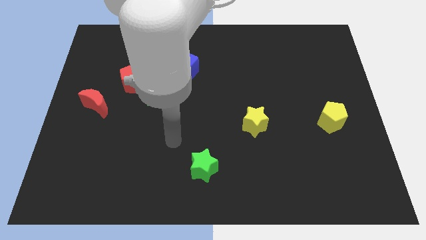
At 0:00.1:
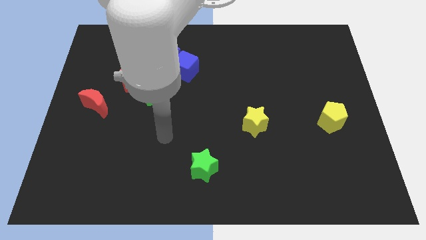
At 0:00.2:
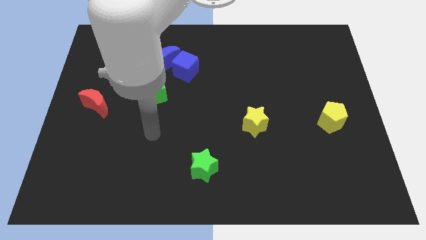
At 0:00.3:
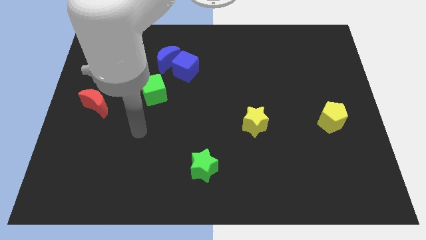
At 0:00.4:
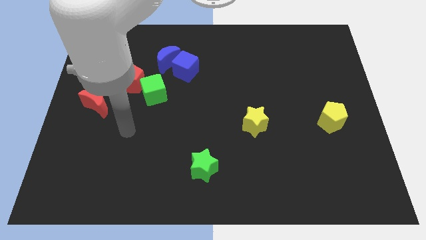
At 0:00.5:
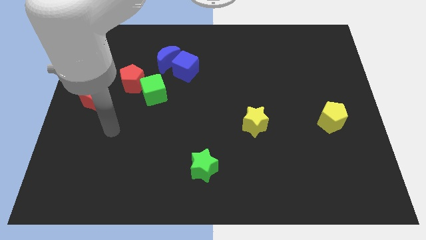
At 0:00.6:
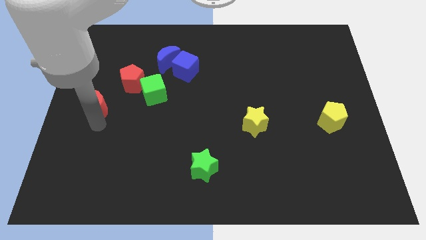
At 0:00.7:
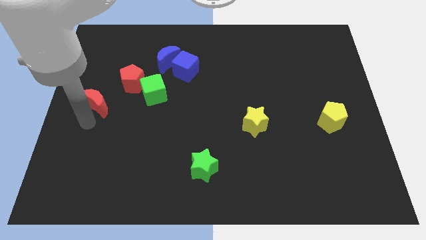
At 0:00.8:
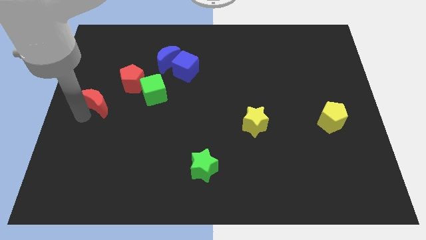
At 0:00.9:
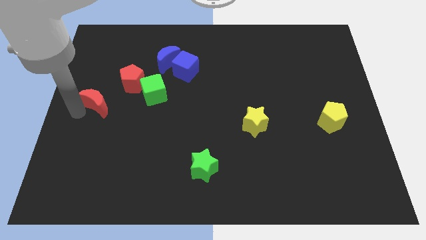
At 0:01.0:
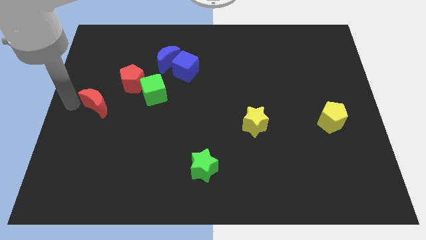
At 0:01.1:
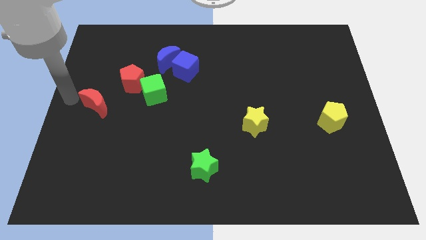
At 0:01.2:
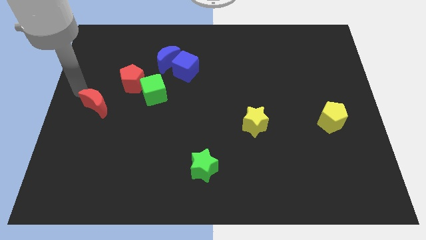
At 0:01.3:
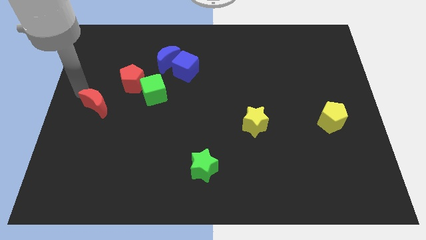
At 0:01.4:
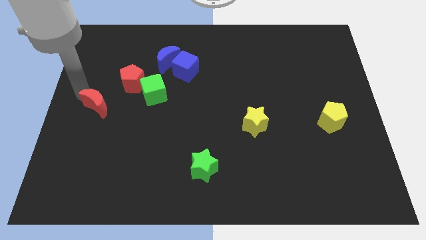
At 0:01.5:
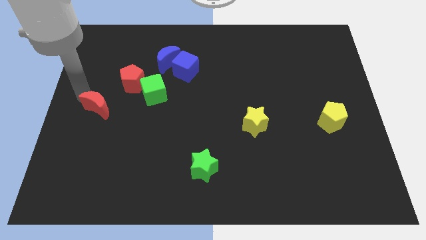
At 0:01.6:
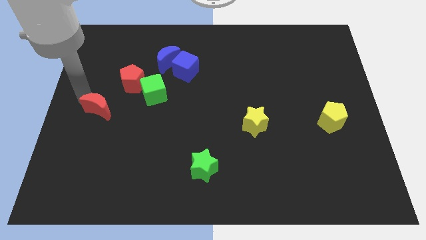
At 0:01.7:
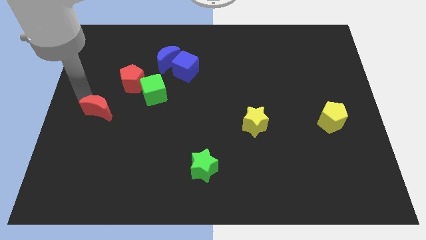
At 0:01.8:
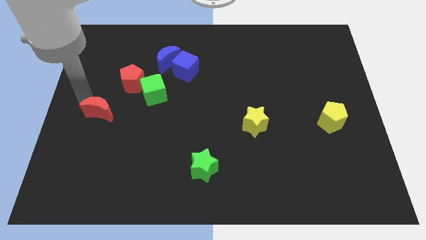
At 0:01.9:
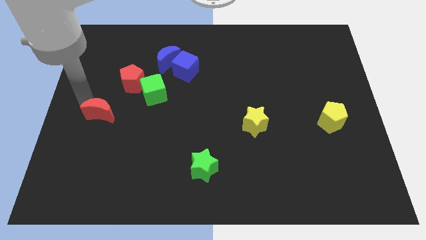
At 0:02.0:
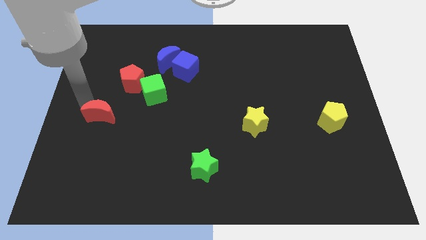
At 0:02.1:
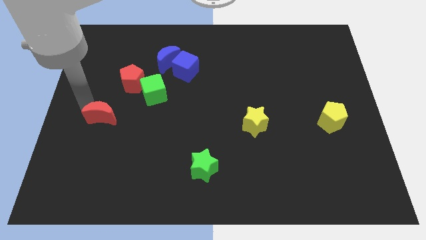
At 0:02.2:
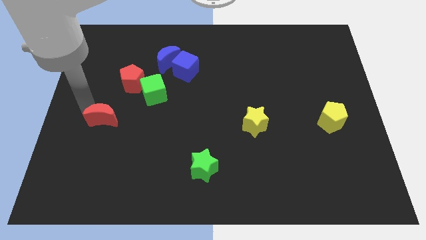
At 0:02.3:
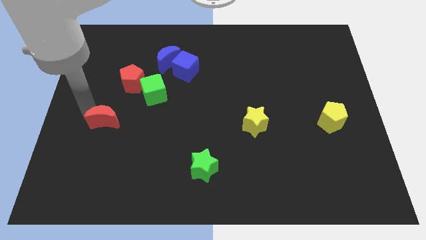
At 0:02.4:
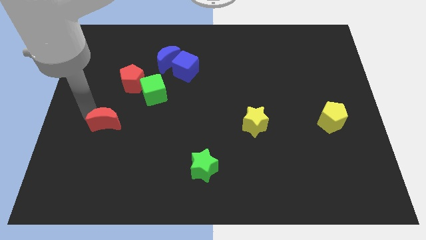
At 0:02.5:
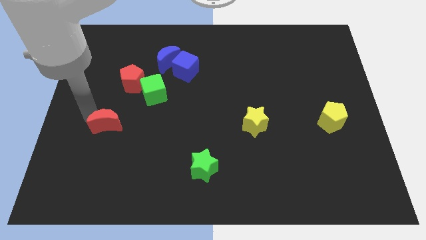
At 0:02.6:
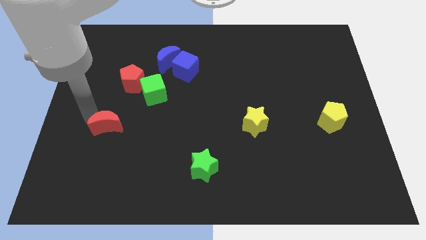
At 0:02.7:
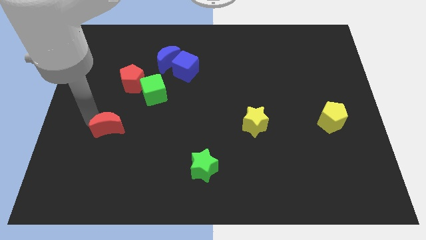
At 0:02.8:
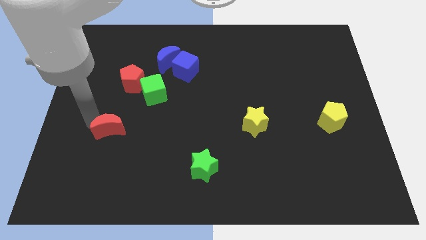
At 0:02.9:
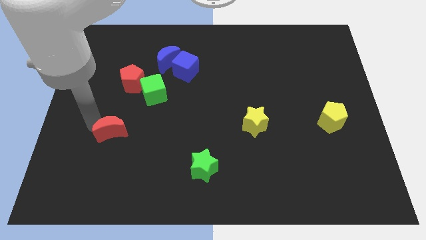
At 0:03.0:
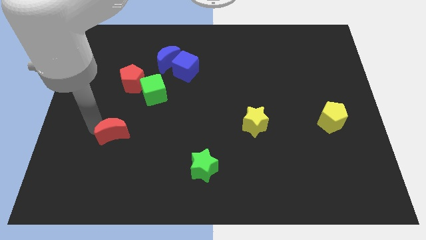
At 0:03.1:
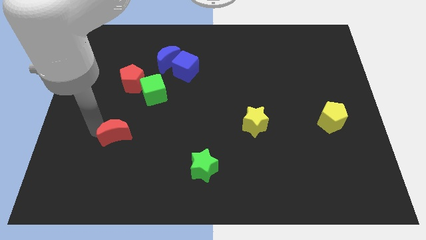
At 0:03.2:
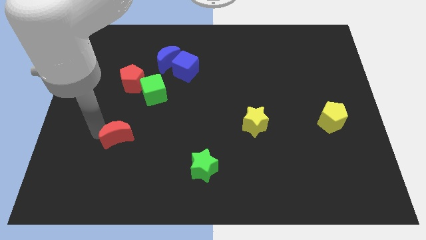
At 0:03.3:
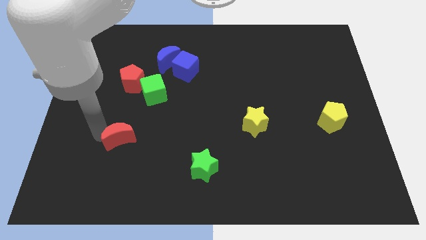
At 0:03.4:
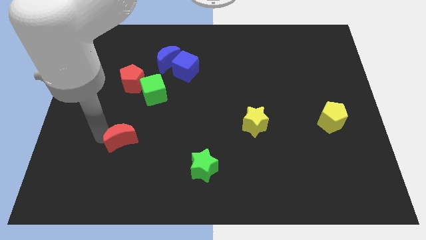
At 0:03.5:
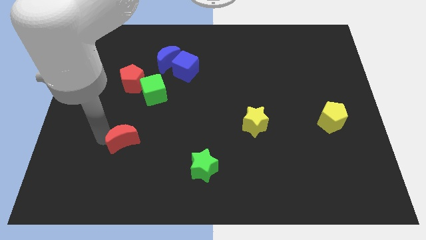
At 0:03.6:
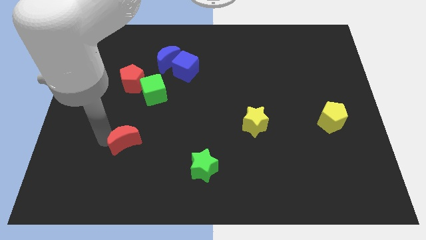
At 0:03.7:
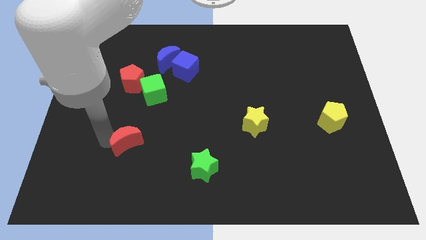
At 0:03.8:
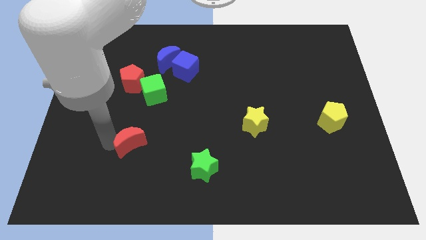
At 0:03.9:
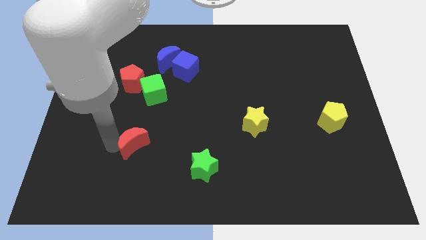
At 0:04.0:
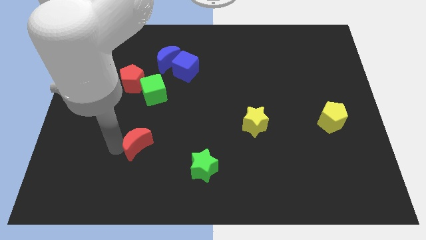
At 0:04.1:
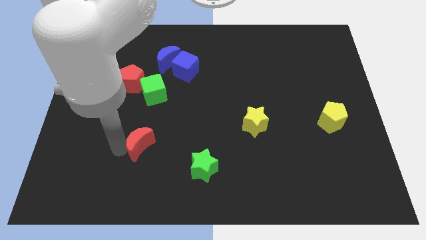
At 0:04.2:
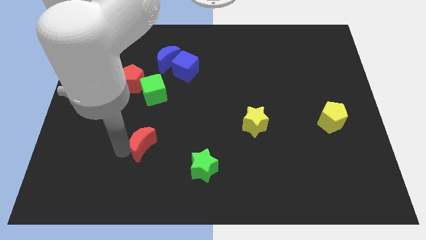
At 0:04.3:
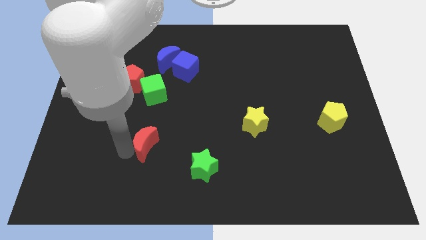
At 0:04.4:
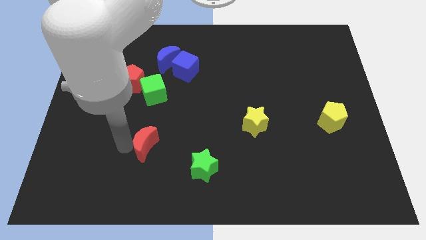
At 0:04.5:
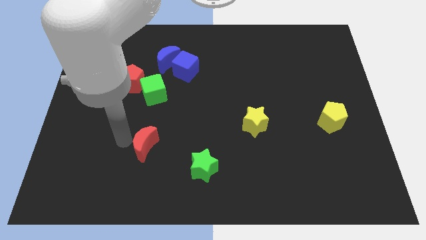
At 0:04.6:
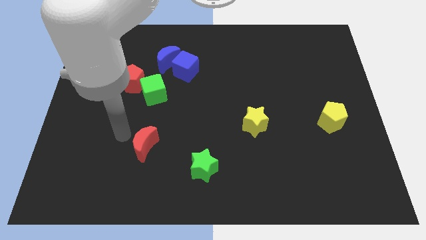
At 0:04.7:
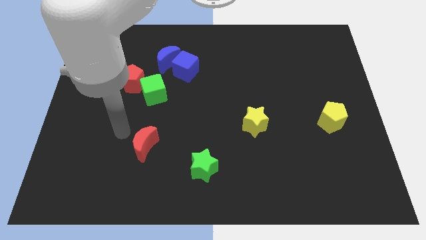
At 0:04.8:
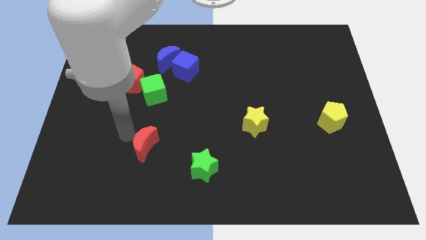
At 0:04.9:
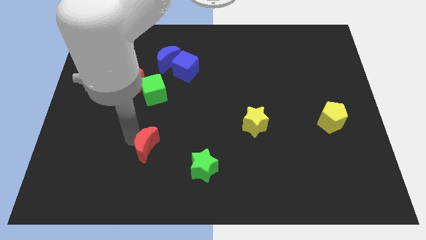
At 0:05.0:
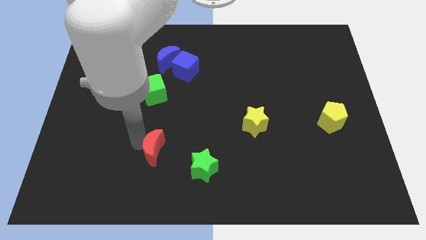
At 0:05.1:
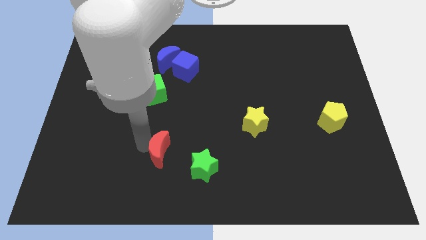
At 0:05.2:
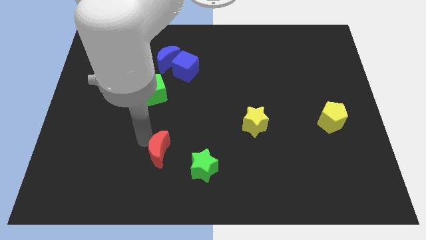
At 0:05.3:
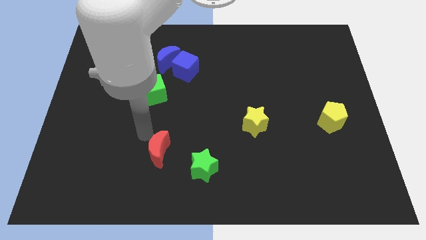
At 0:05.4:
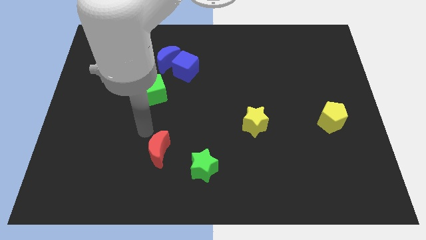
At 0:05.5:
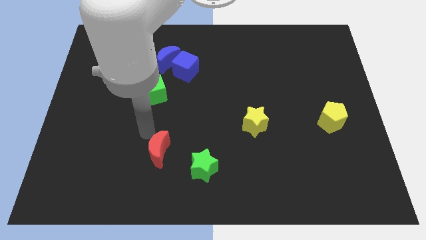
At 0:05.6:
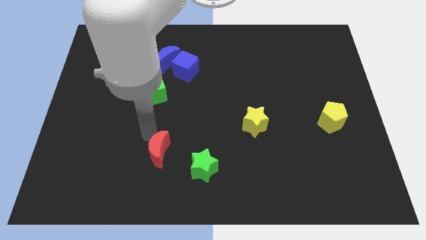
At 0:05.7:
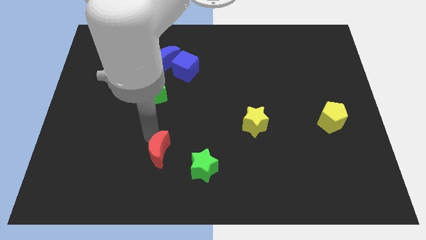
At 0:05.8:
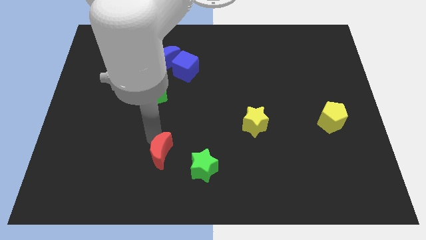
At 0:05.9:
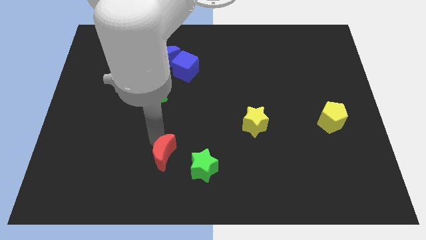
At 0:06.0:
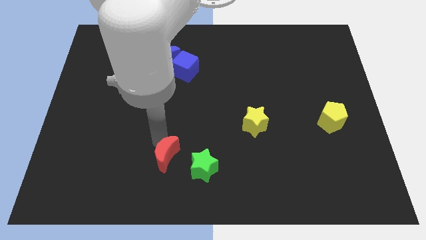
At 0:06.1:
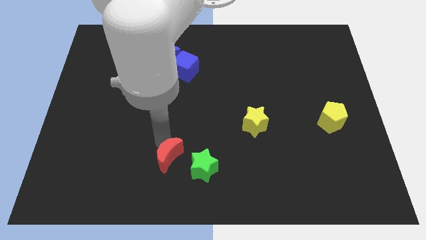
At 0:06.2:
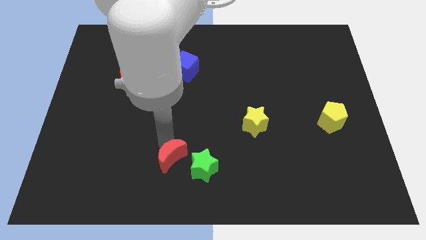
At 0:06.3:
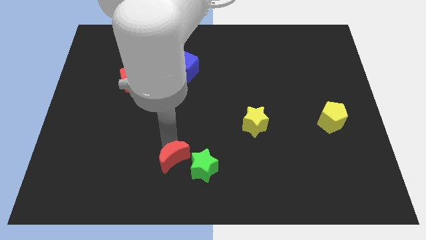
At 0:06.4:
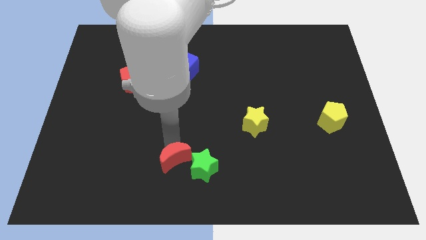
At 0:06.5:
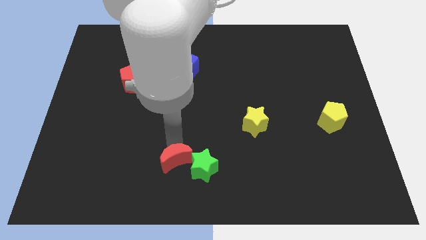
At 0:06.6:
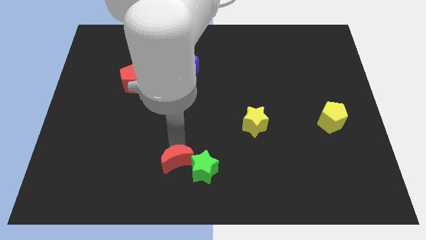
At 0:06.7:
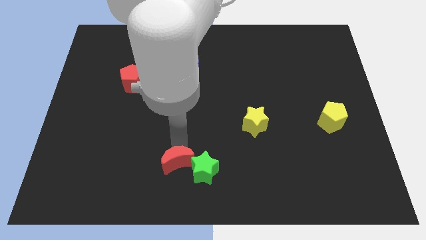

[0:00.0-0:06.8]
push the red moon to the bottom

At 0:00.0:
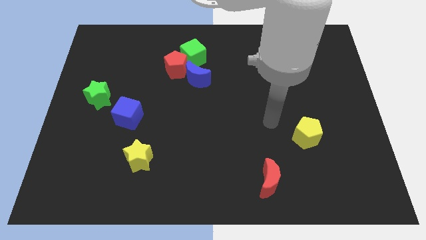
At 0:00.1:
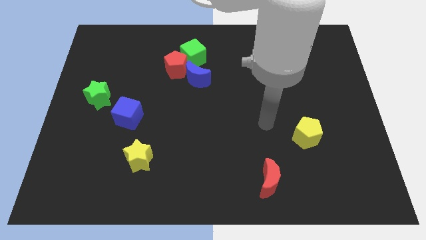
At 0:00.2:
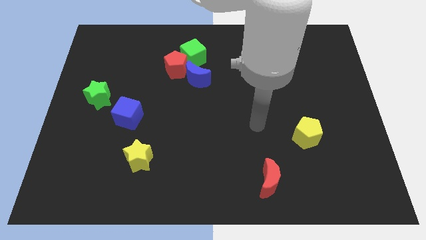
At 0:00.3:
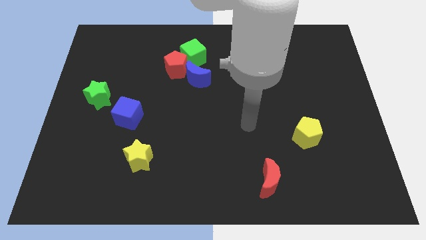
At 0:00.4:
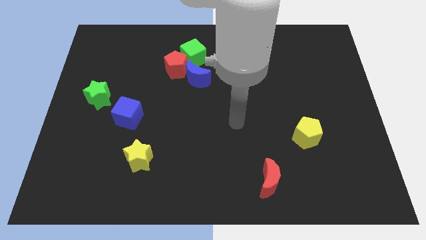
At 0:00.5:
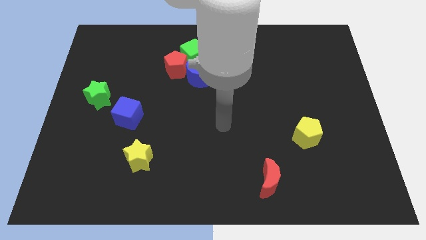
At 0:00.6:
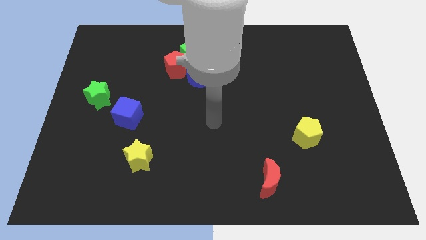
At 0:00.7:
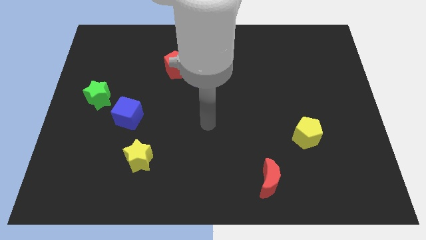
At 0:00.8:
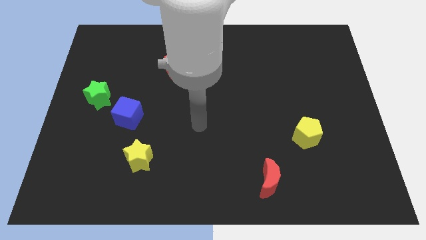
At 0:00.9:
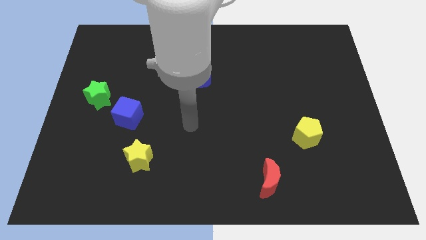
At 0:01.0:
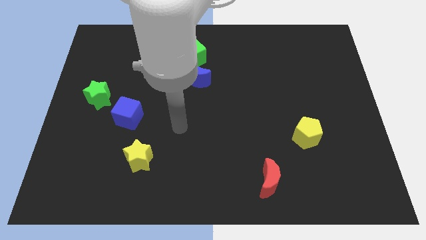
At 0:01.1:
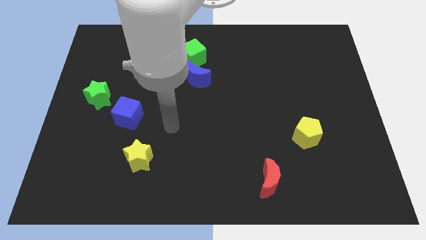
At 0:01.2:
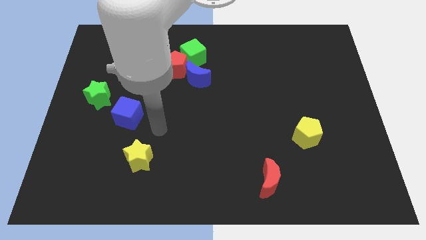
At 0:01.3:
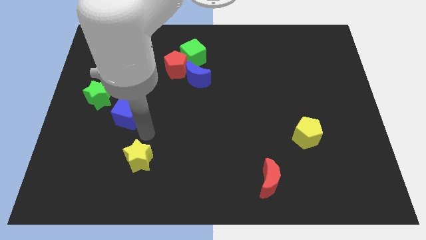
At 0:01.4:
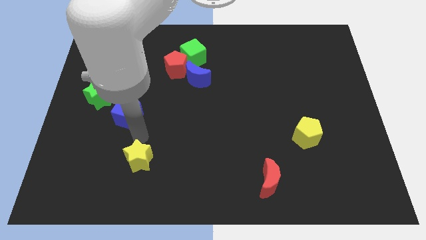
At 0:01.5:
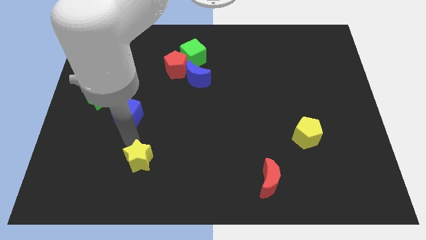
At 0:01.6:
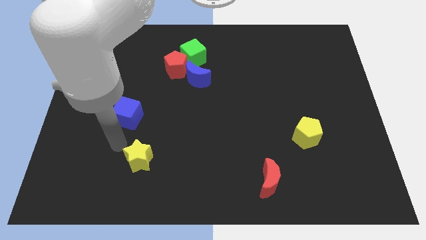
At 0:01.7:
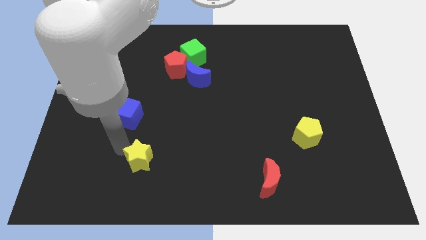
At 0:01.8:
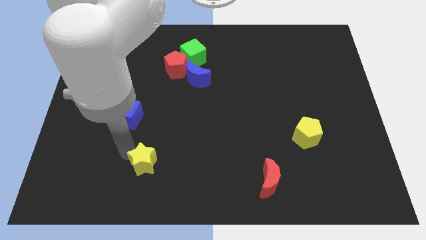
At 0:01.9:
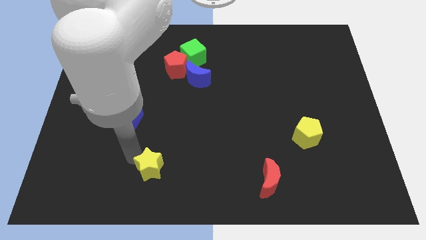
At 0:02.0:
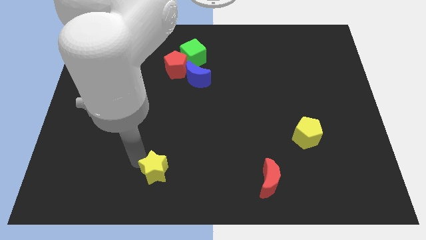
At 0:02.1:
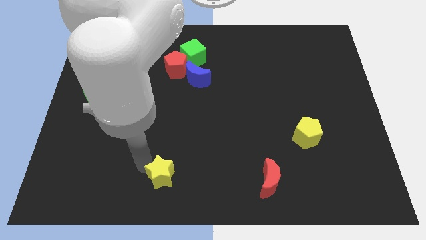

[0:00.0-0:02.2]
push the yellow star to the bottom
